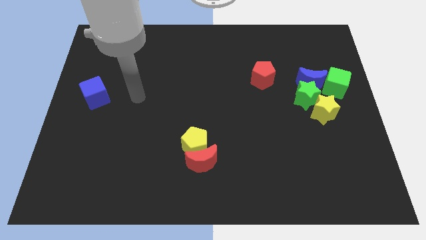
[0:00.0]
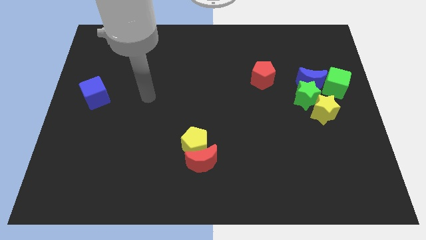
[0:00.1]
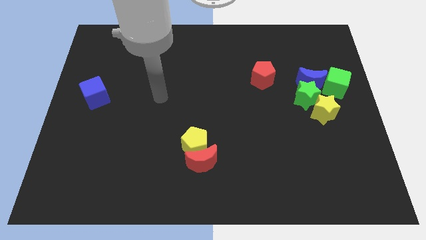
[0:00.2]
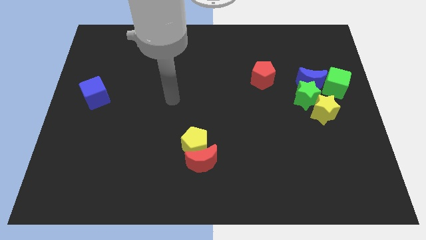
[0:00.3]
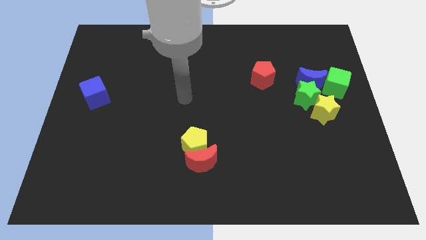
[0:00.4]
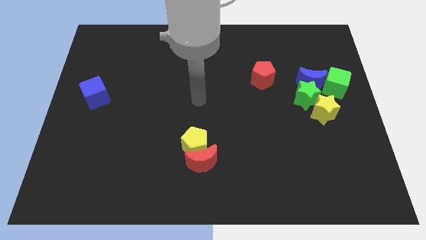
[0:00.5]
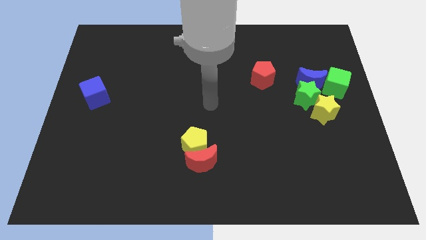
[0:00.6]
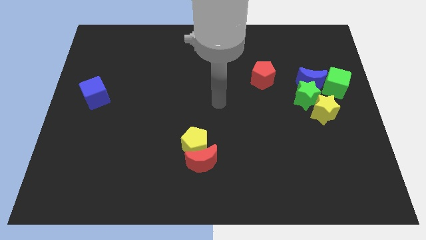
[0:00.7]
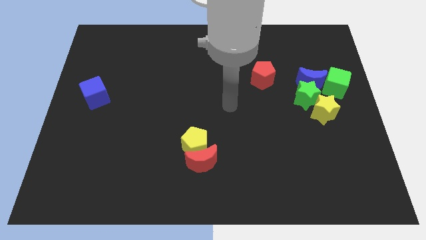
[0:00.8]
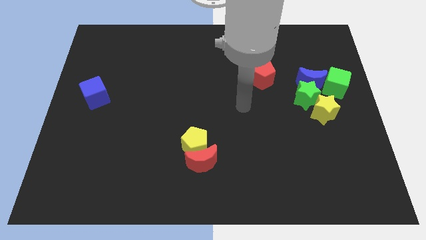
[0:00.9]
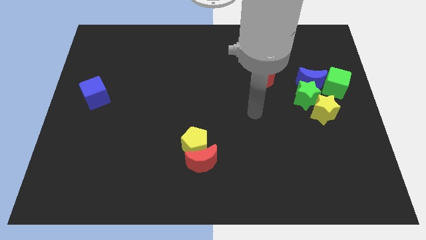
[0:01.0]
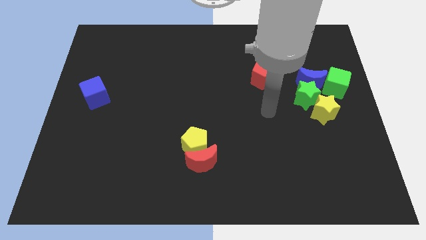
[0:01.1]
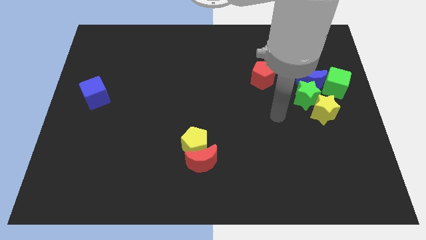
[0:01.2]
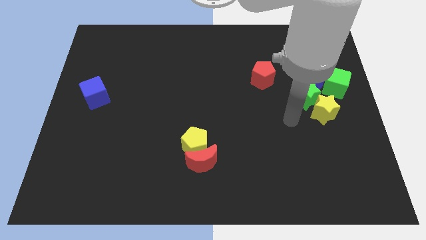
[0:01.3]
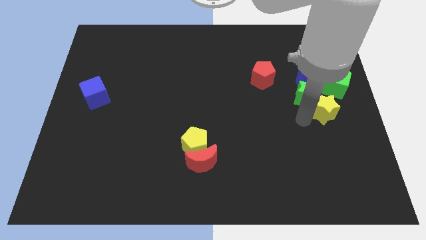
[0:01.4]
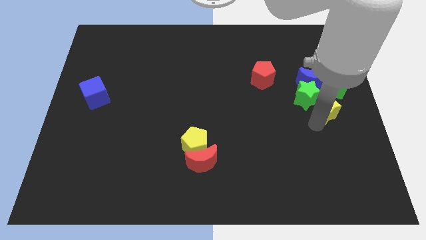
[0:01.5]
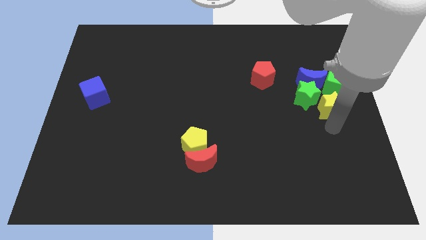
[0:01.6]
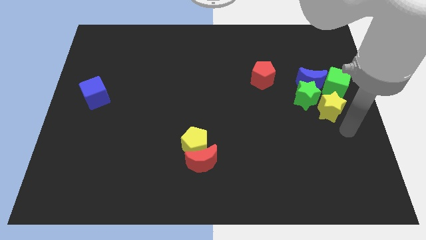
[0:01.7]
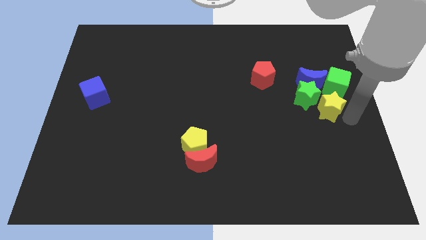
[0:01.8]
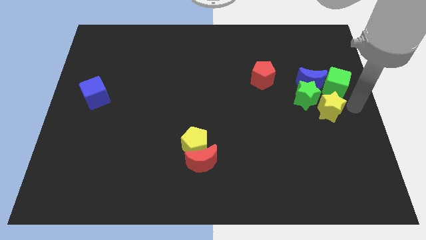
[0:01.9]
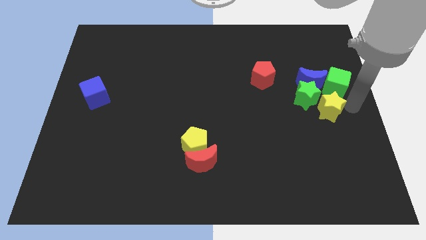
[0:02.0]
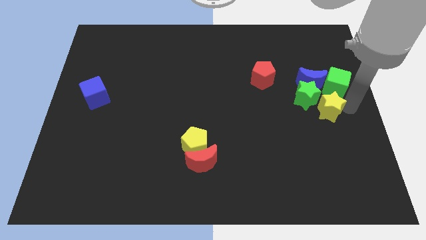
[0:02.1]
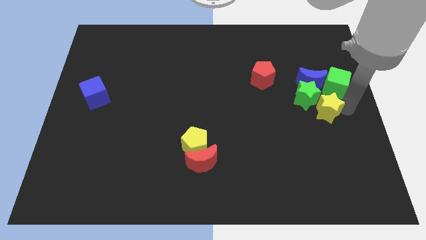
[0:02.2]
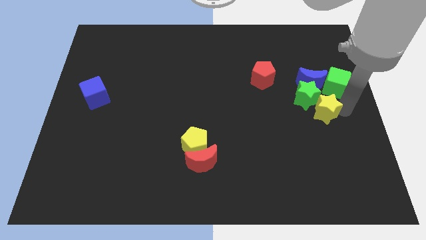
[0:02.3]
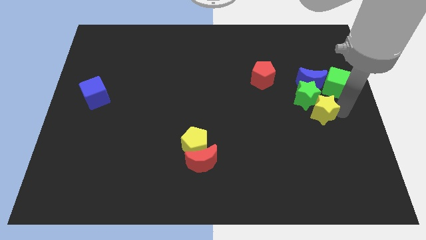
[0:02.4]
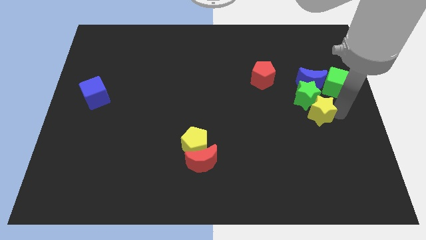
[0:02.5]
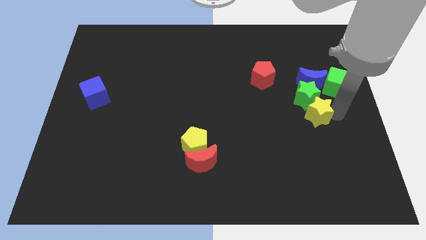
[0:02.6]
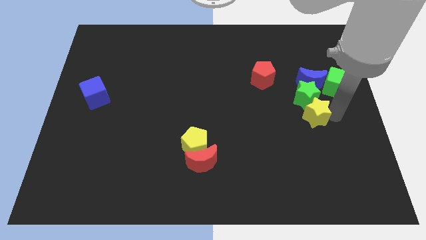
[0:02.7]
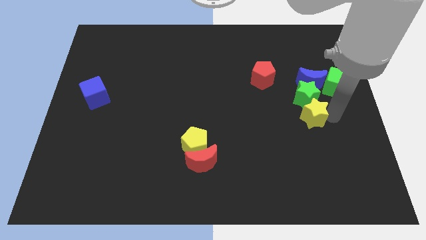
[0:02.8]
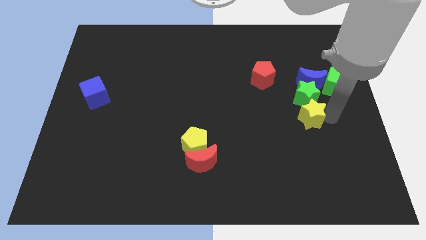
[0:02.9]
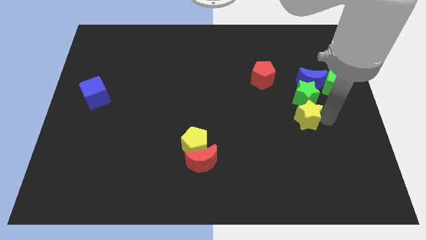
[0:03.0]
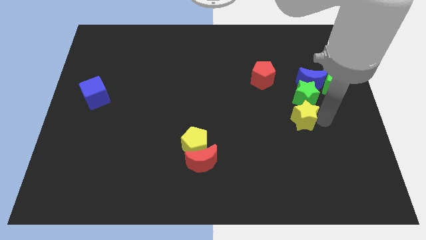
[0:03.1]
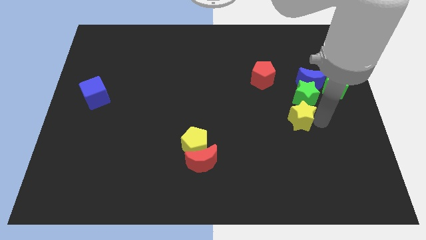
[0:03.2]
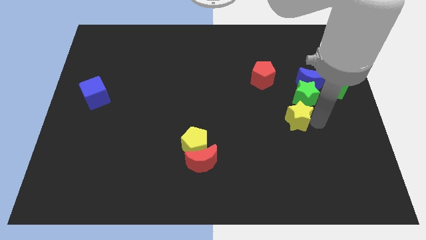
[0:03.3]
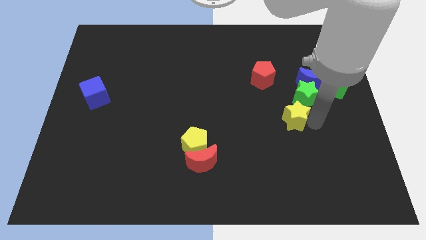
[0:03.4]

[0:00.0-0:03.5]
push the yellow star slightly left

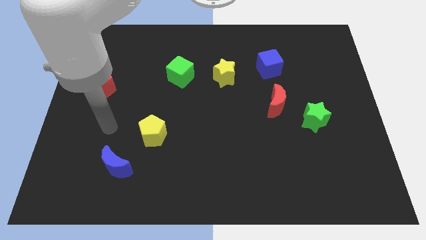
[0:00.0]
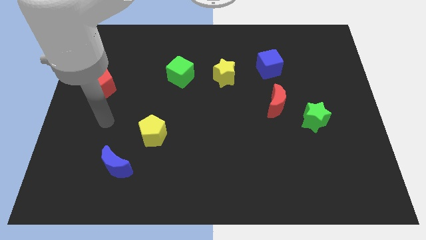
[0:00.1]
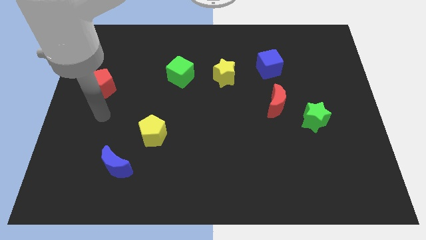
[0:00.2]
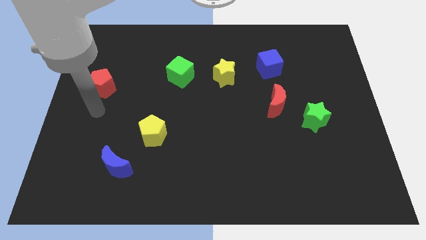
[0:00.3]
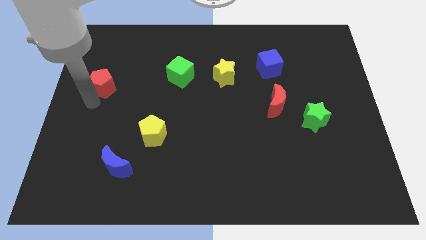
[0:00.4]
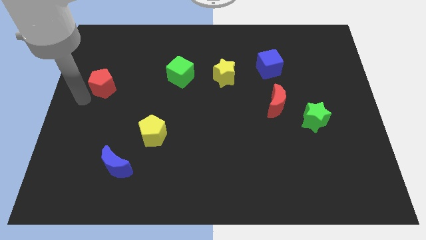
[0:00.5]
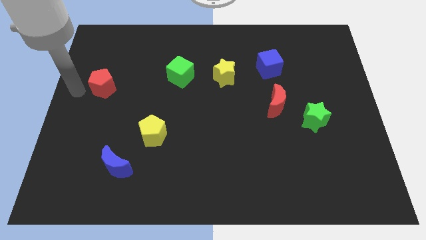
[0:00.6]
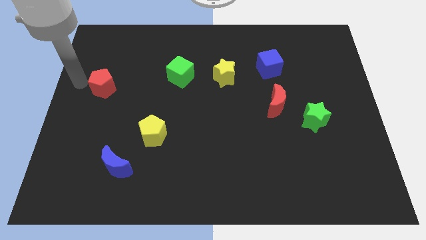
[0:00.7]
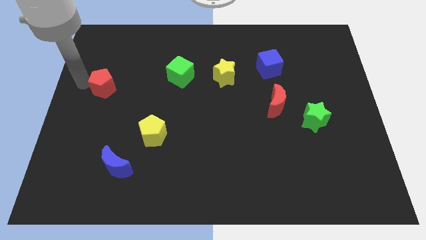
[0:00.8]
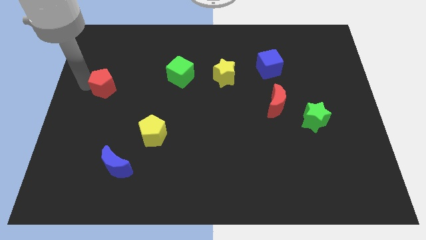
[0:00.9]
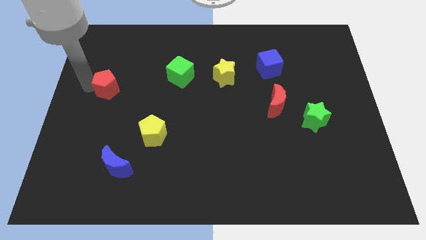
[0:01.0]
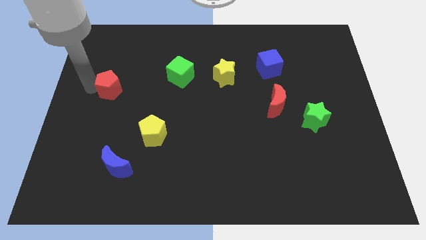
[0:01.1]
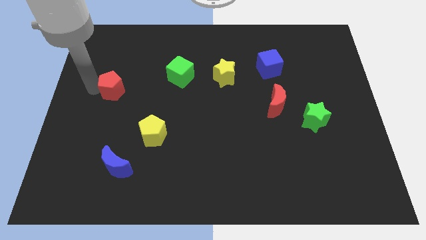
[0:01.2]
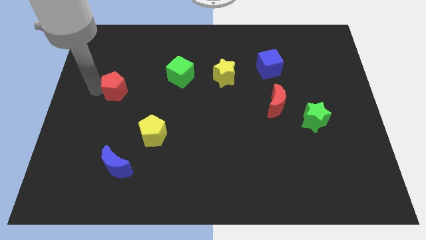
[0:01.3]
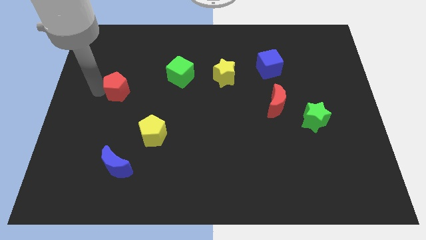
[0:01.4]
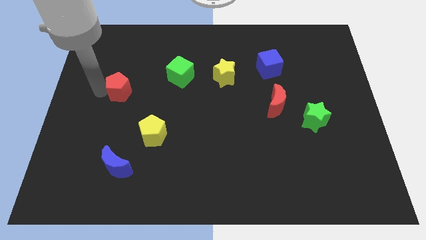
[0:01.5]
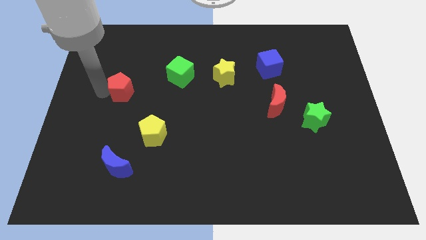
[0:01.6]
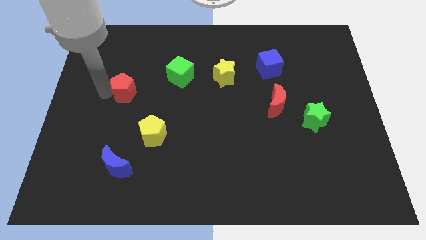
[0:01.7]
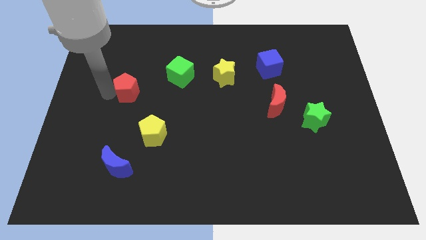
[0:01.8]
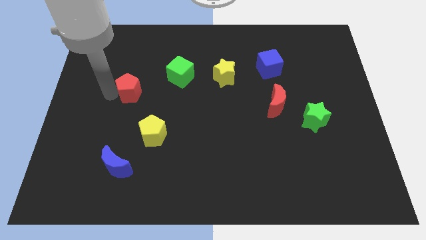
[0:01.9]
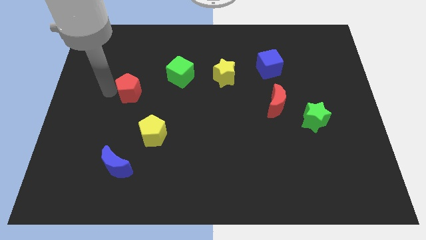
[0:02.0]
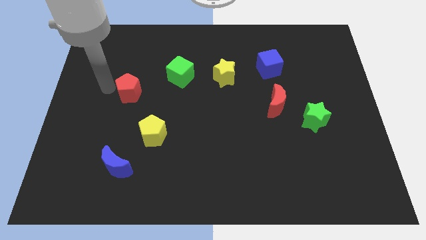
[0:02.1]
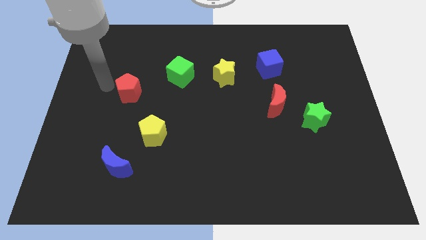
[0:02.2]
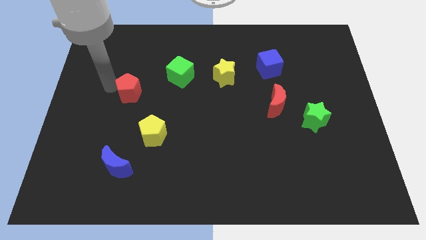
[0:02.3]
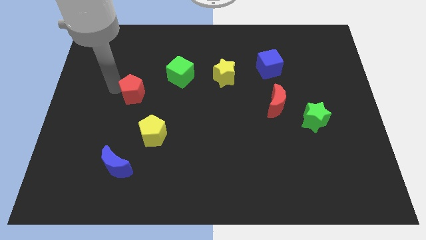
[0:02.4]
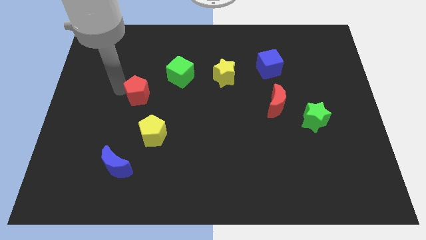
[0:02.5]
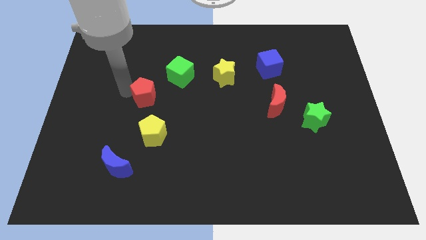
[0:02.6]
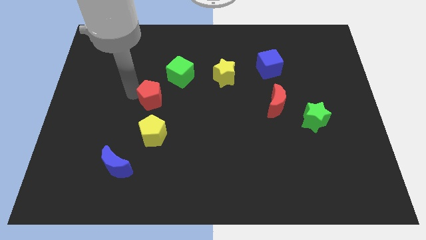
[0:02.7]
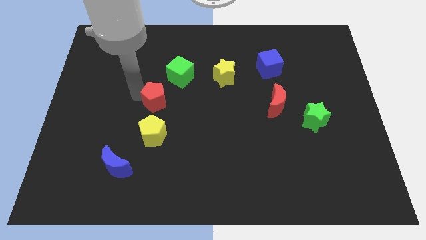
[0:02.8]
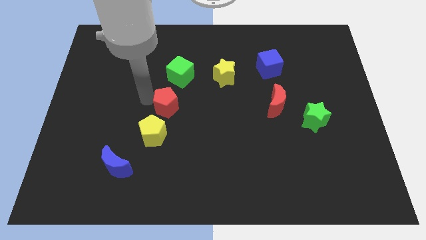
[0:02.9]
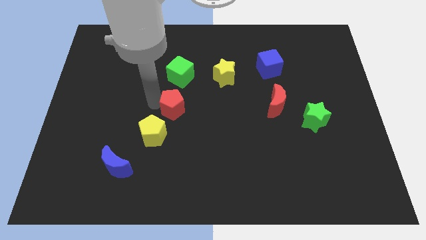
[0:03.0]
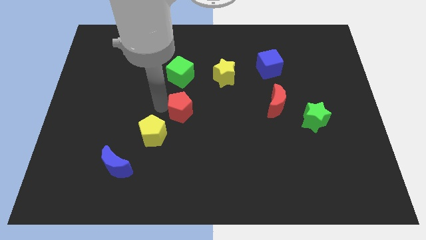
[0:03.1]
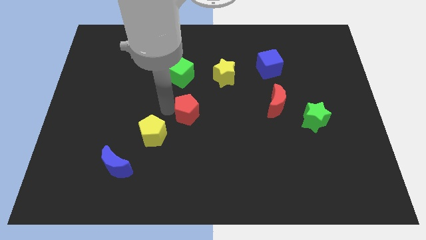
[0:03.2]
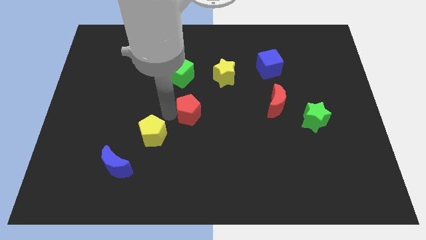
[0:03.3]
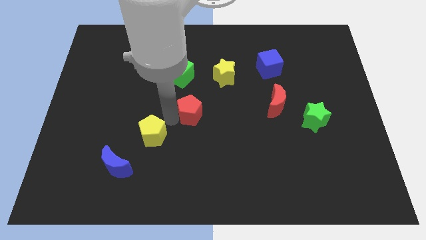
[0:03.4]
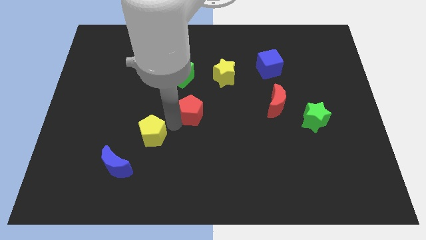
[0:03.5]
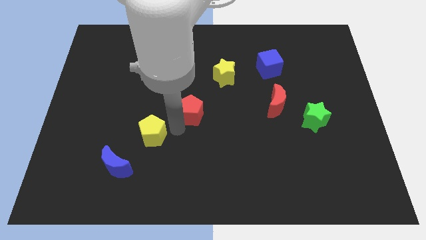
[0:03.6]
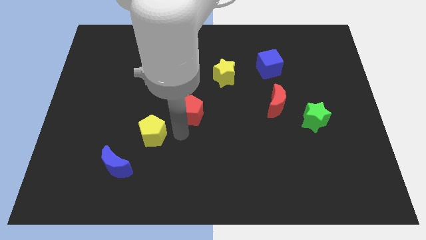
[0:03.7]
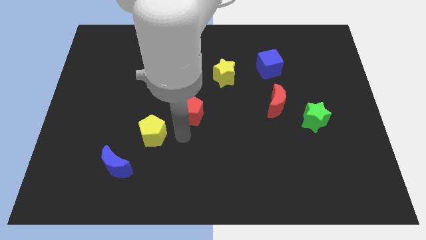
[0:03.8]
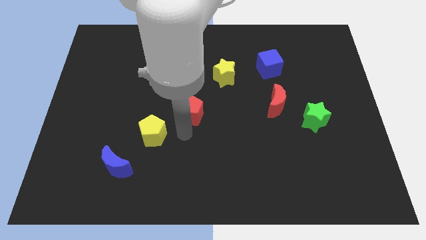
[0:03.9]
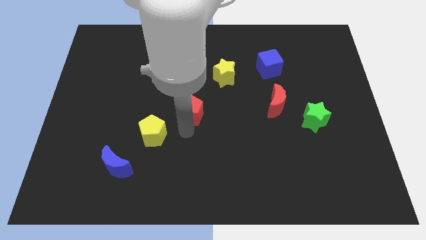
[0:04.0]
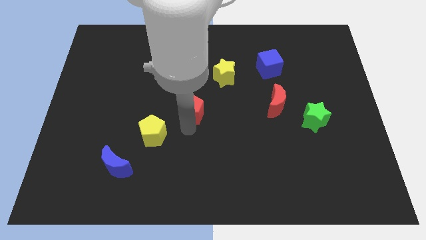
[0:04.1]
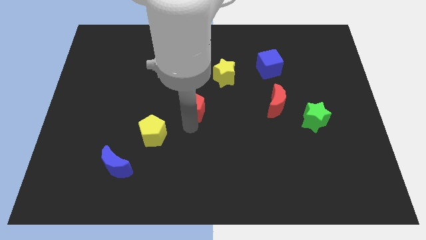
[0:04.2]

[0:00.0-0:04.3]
move the red pentagon right
